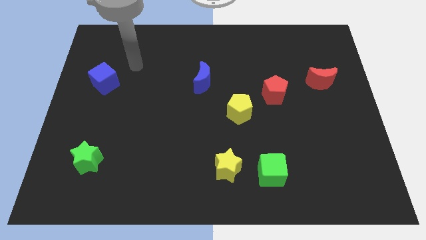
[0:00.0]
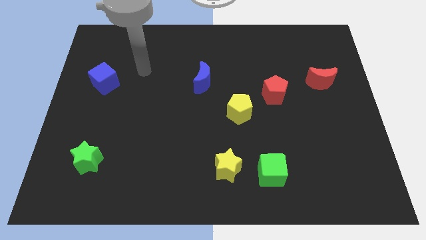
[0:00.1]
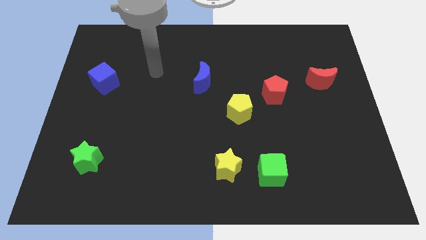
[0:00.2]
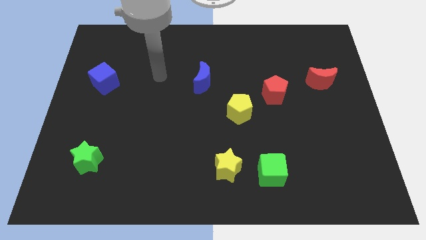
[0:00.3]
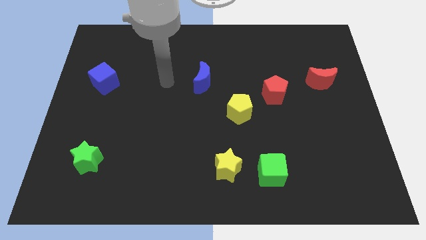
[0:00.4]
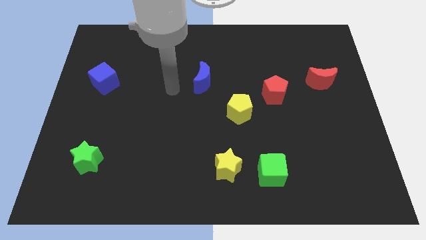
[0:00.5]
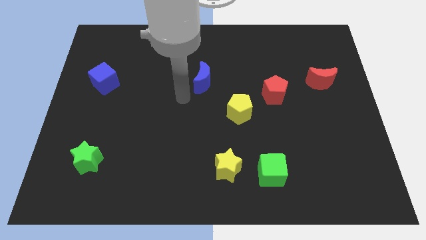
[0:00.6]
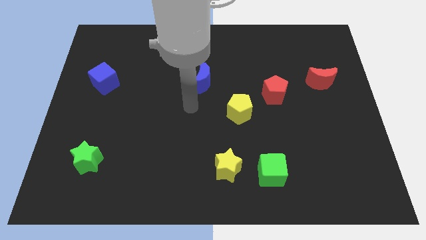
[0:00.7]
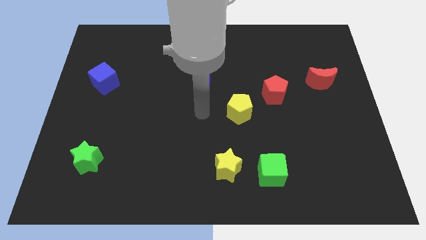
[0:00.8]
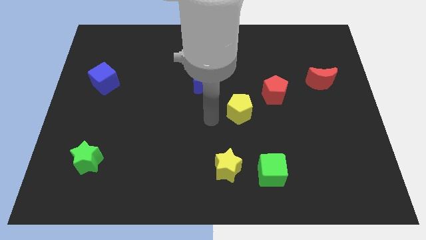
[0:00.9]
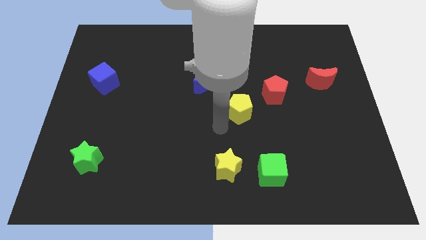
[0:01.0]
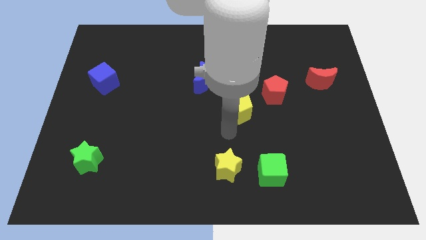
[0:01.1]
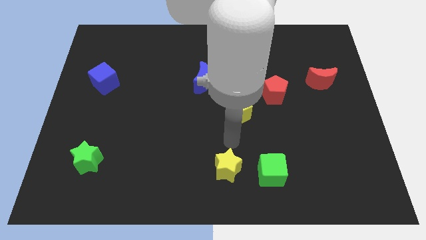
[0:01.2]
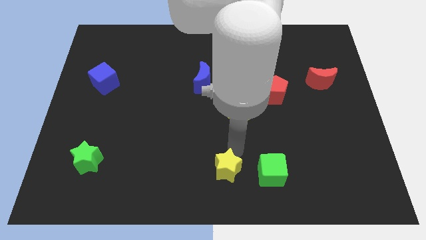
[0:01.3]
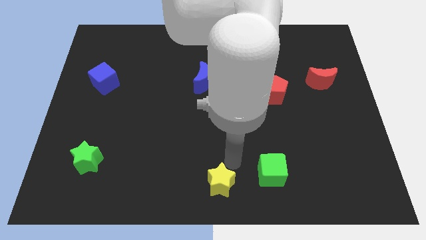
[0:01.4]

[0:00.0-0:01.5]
move the green cube away from the yellow star

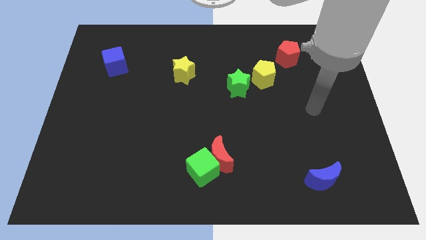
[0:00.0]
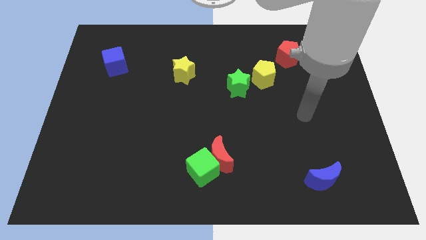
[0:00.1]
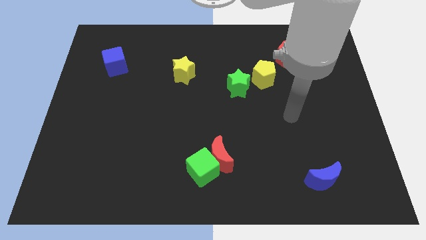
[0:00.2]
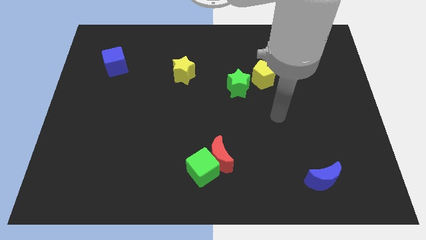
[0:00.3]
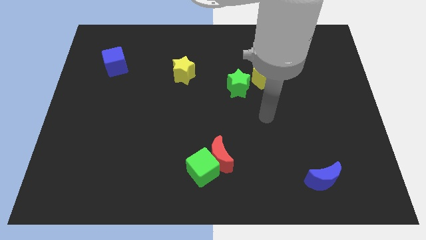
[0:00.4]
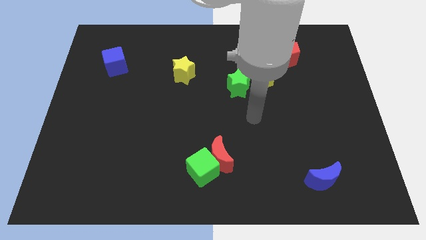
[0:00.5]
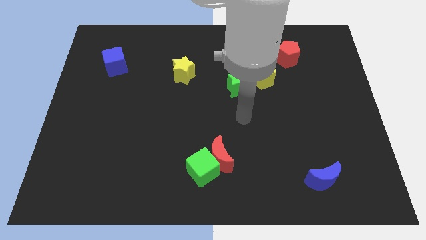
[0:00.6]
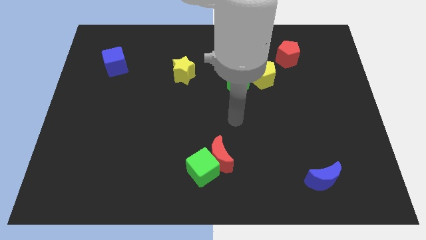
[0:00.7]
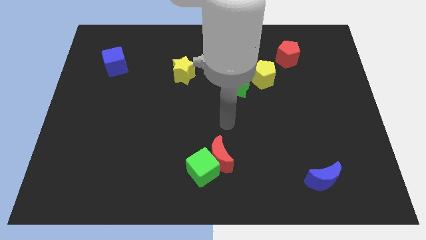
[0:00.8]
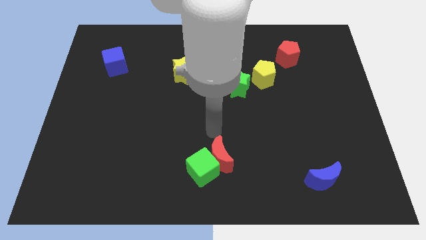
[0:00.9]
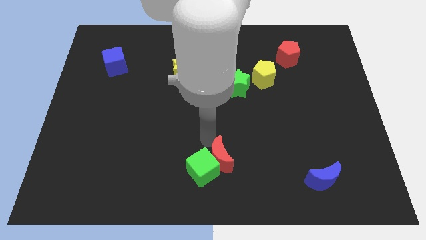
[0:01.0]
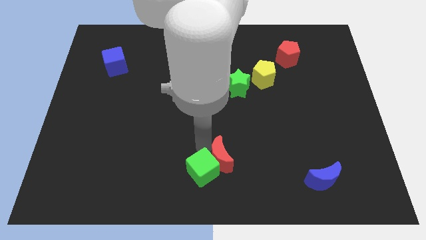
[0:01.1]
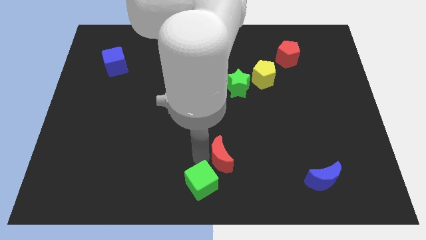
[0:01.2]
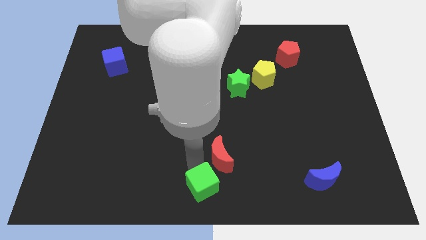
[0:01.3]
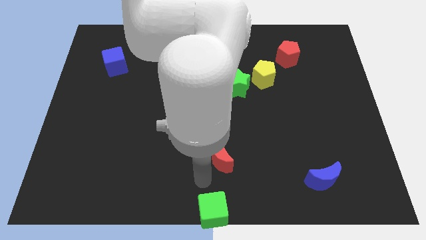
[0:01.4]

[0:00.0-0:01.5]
pull the red moon apart from the green cube

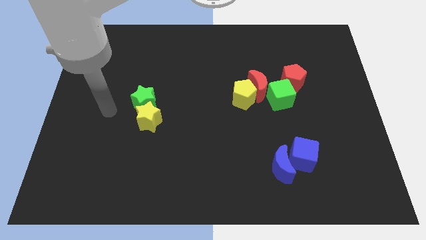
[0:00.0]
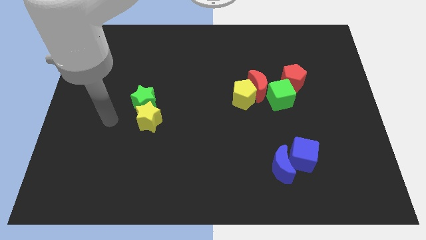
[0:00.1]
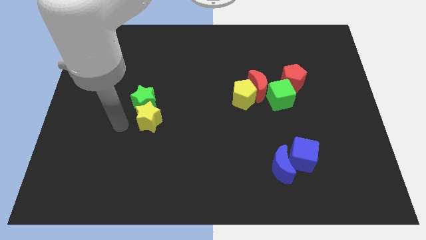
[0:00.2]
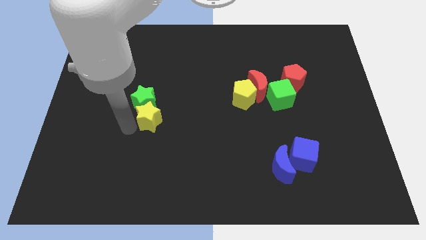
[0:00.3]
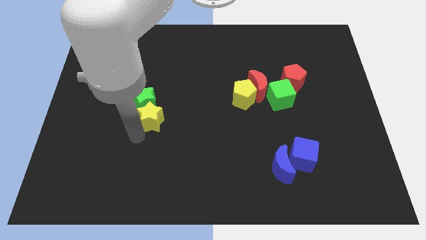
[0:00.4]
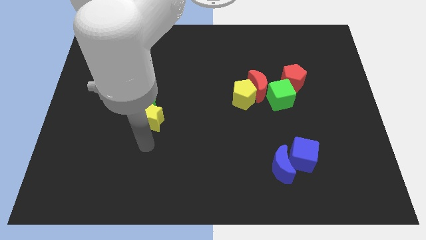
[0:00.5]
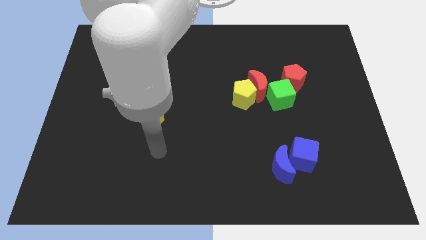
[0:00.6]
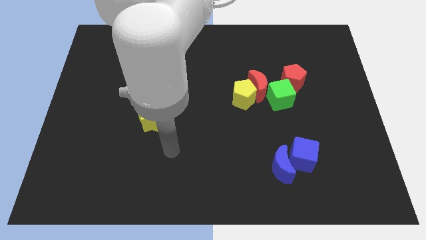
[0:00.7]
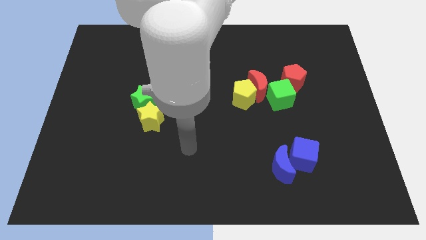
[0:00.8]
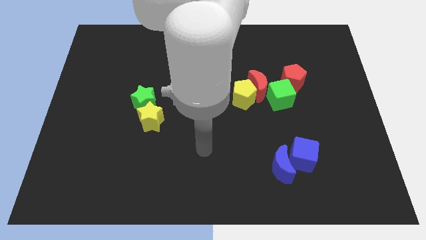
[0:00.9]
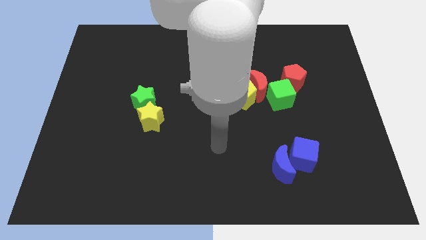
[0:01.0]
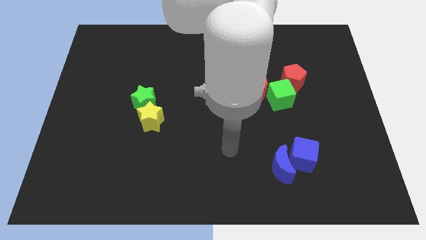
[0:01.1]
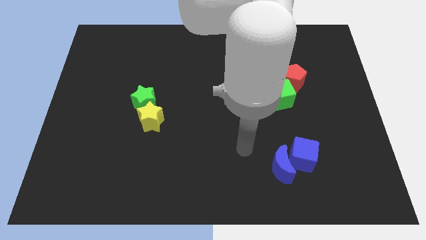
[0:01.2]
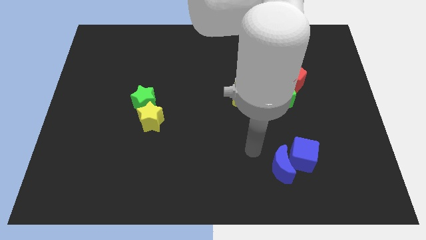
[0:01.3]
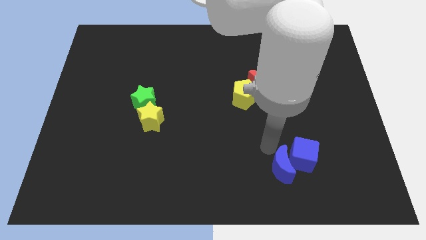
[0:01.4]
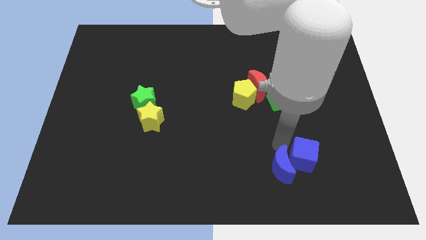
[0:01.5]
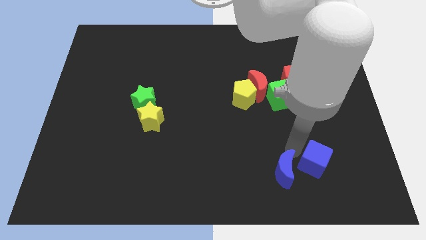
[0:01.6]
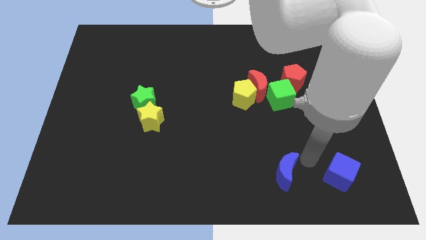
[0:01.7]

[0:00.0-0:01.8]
pull the blue moon apart from the blue cube

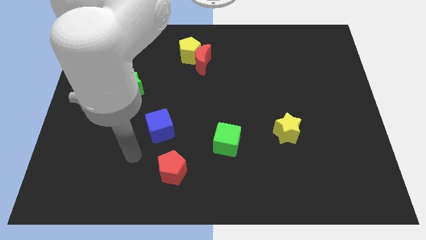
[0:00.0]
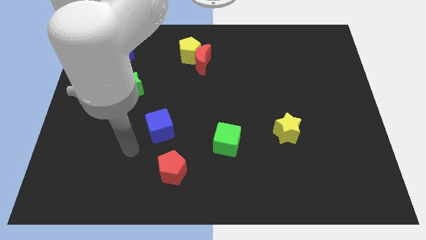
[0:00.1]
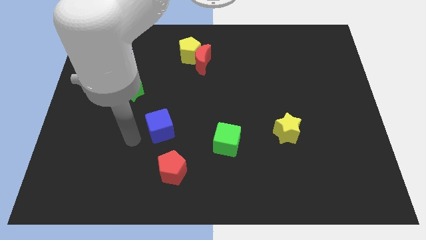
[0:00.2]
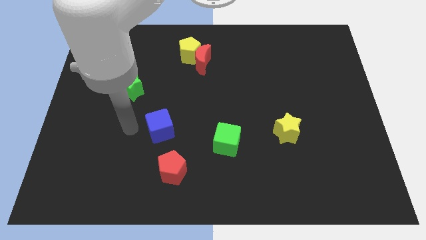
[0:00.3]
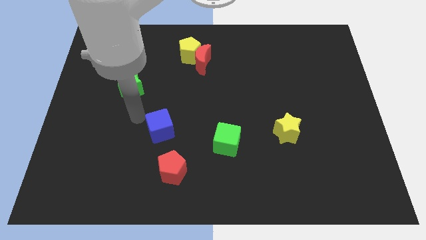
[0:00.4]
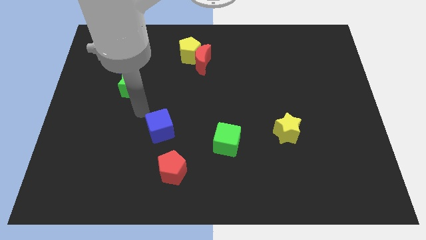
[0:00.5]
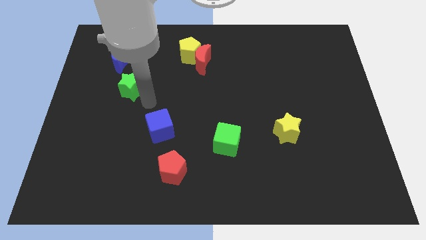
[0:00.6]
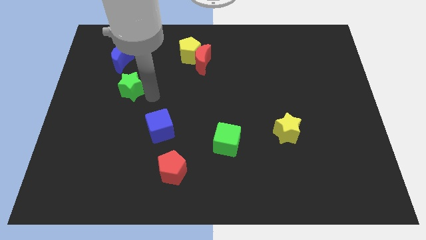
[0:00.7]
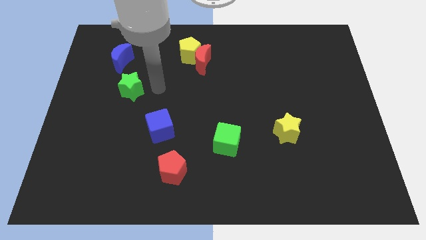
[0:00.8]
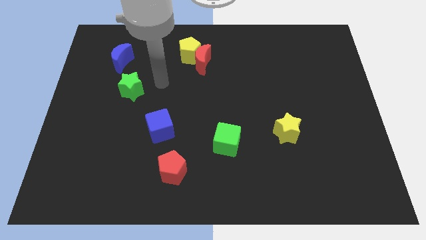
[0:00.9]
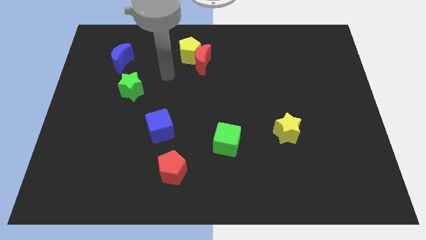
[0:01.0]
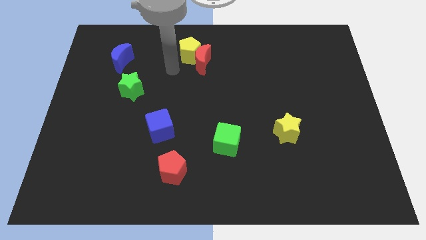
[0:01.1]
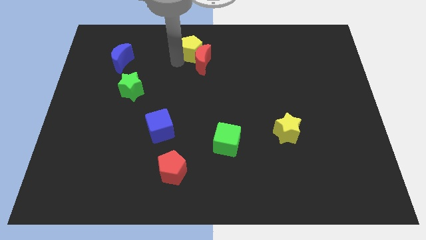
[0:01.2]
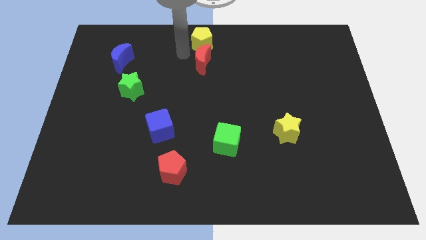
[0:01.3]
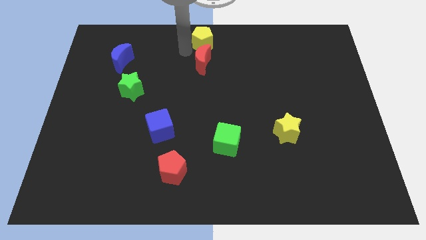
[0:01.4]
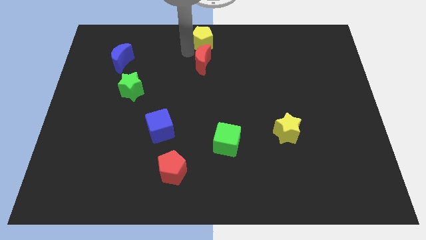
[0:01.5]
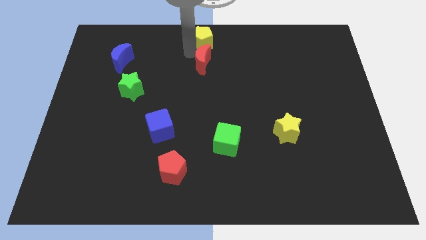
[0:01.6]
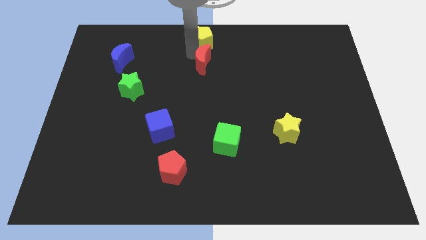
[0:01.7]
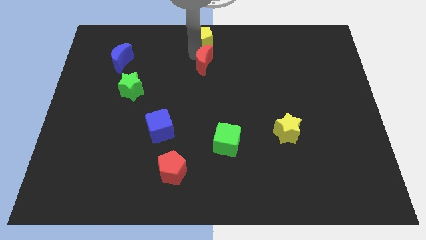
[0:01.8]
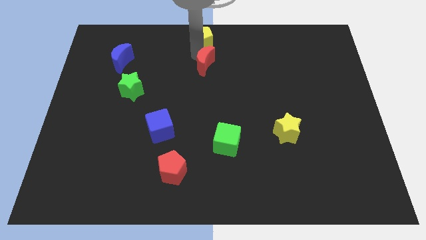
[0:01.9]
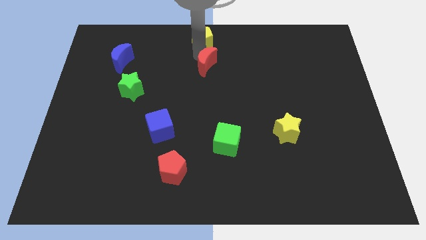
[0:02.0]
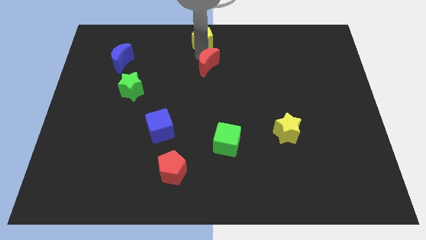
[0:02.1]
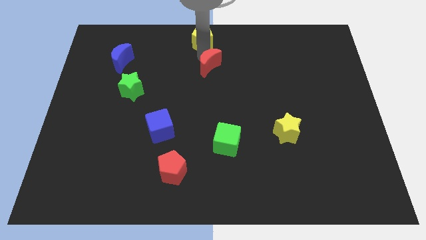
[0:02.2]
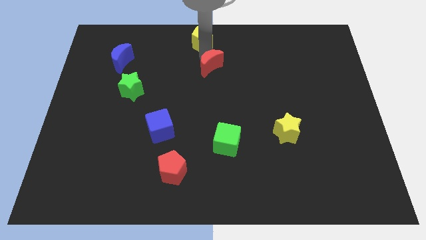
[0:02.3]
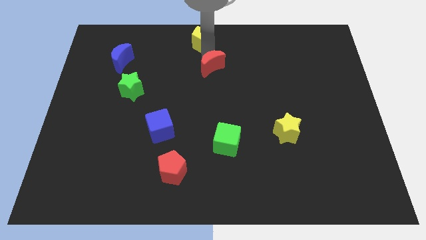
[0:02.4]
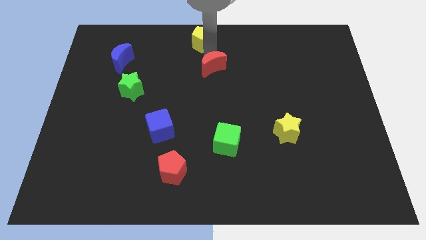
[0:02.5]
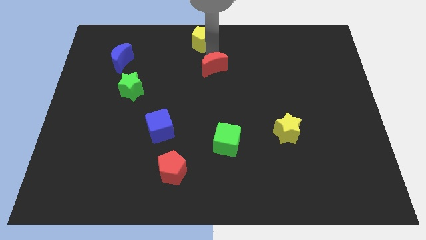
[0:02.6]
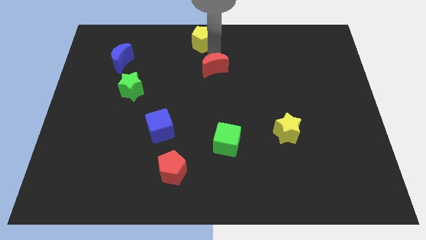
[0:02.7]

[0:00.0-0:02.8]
separate the red moon from the yellow pentagon

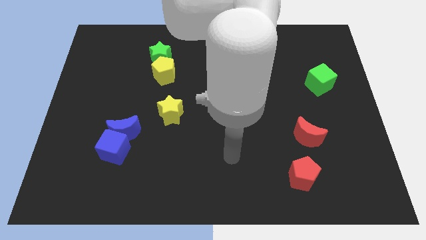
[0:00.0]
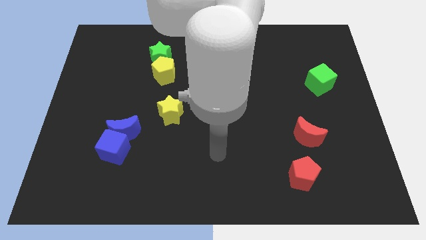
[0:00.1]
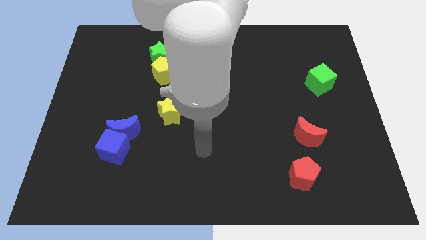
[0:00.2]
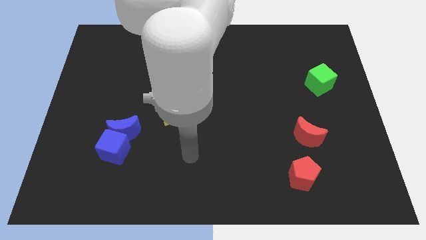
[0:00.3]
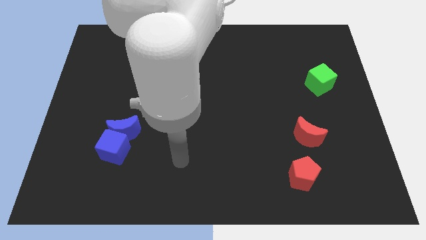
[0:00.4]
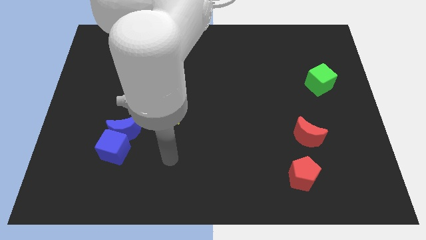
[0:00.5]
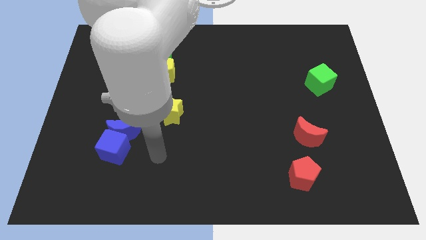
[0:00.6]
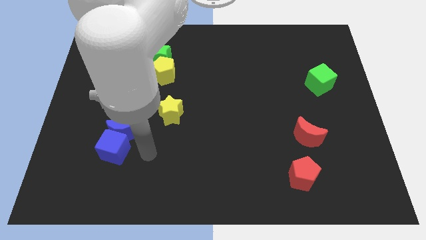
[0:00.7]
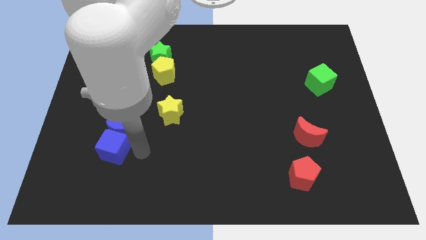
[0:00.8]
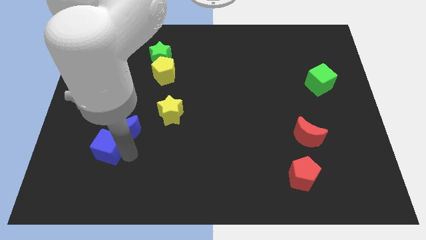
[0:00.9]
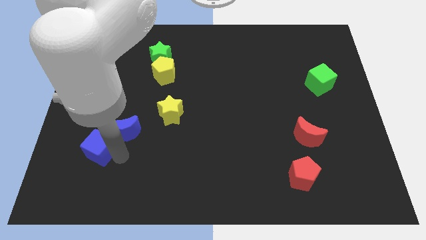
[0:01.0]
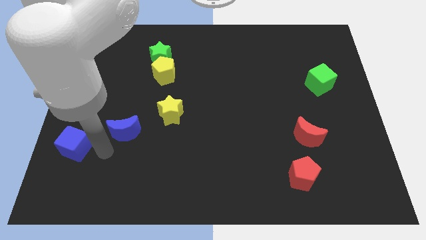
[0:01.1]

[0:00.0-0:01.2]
separate the blue moon from the blue cube

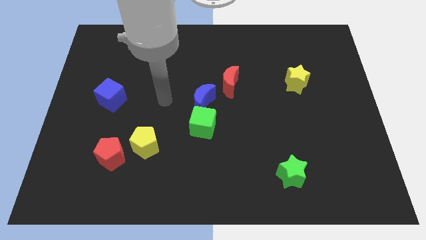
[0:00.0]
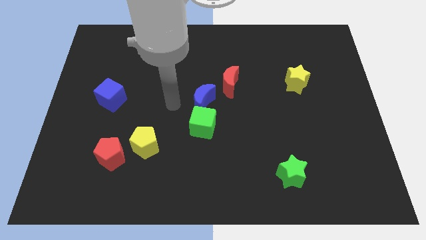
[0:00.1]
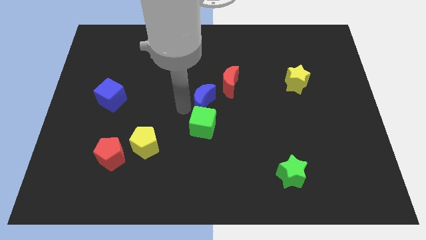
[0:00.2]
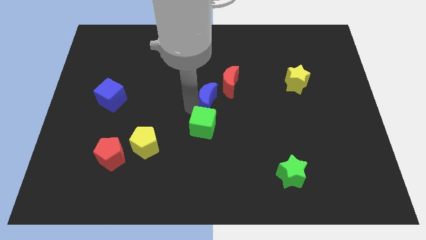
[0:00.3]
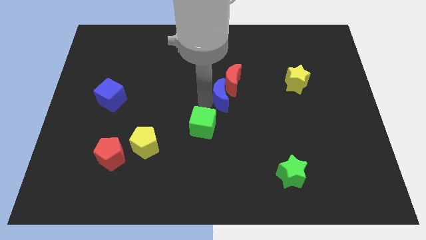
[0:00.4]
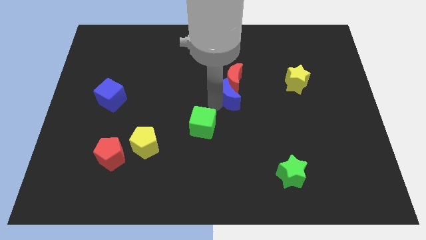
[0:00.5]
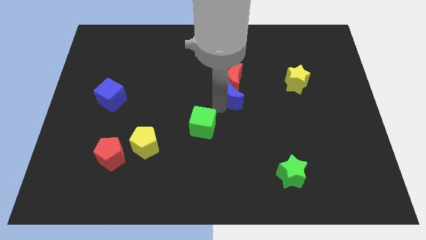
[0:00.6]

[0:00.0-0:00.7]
separate the green cube from the blue moon
